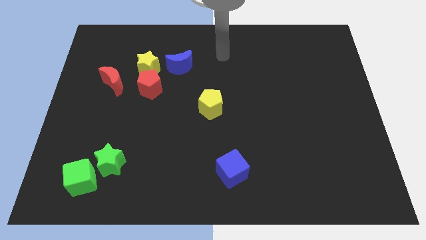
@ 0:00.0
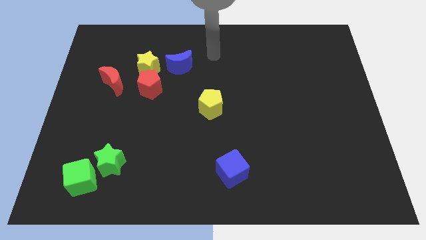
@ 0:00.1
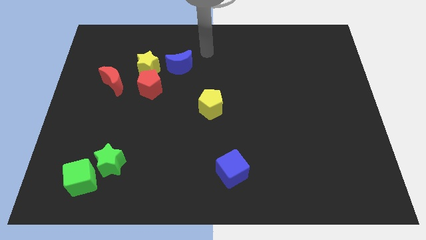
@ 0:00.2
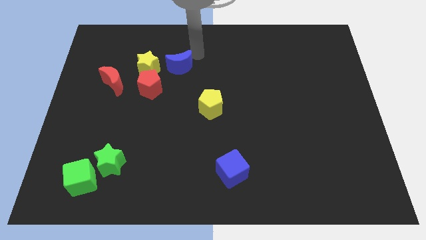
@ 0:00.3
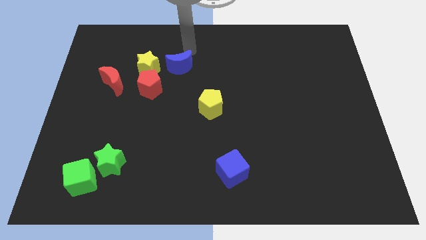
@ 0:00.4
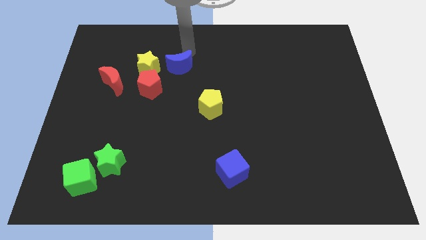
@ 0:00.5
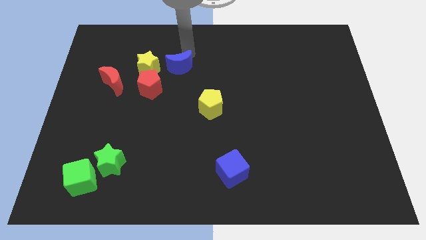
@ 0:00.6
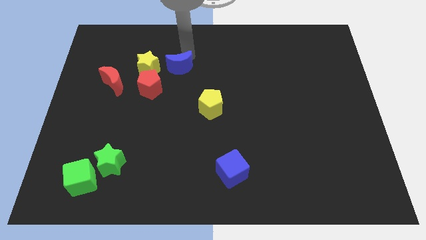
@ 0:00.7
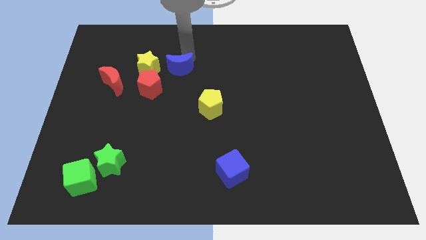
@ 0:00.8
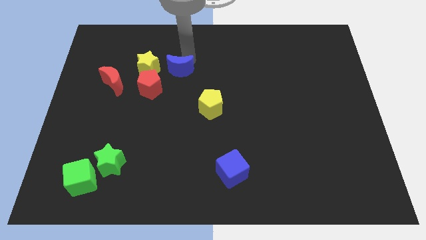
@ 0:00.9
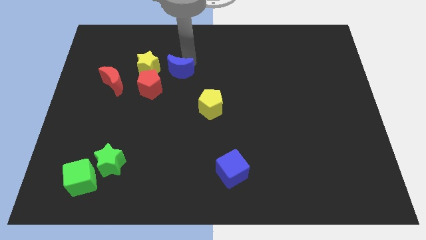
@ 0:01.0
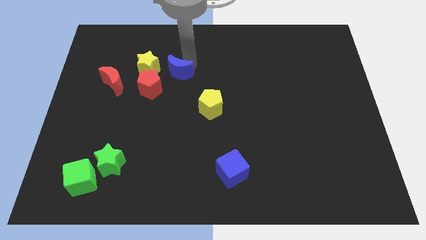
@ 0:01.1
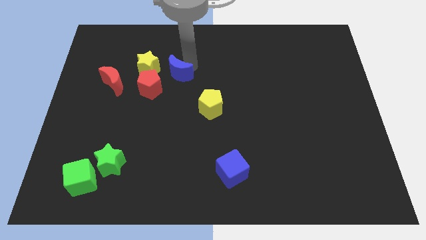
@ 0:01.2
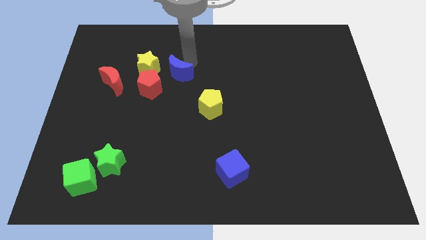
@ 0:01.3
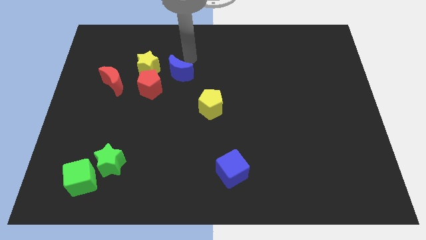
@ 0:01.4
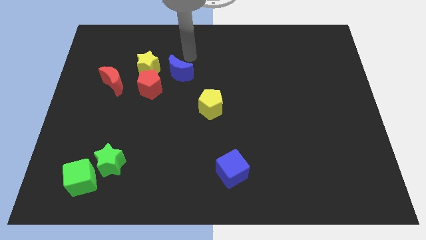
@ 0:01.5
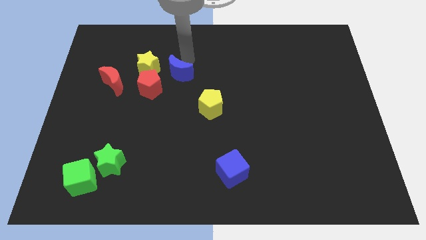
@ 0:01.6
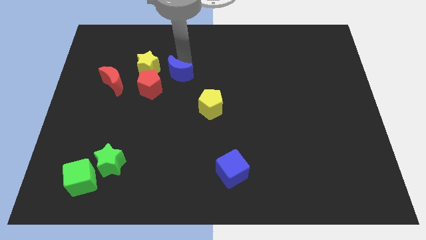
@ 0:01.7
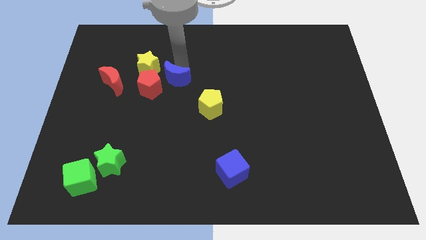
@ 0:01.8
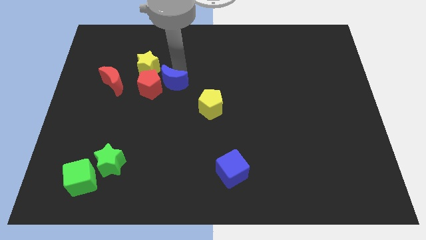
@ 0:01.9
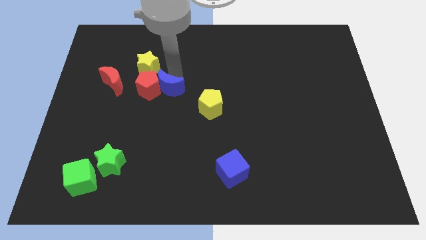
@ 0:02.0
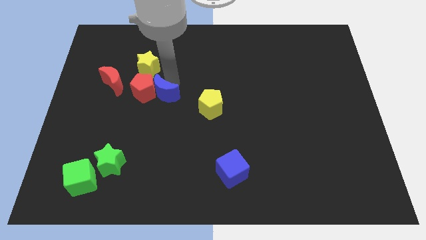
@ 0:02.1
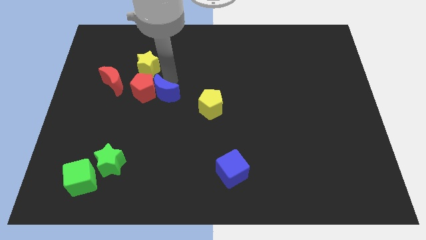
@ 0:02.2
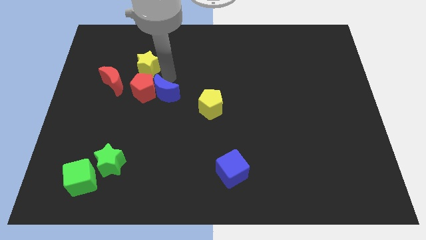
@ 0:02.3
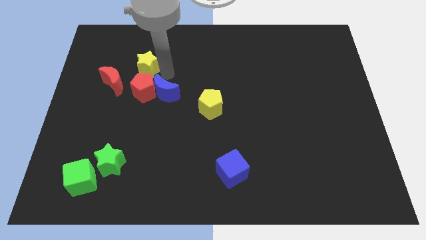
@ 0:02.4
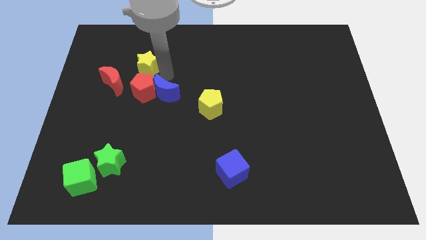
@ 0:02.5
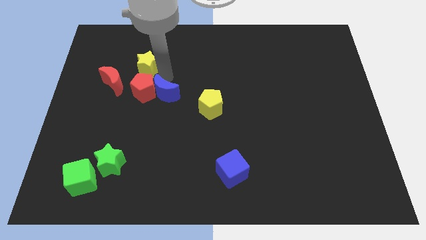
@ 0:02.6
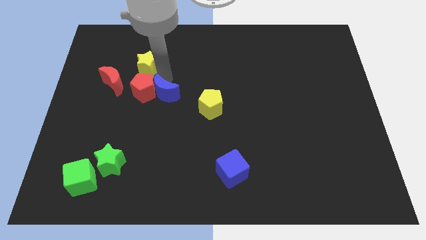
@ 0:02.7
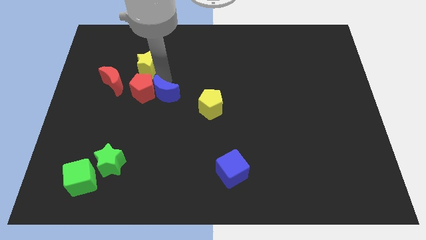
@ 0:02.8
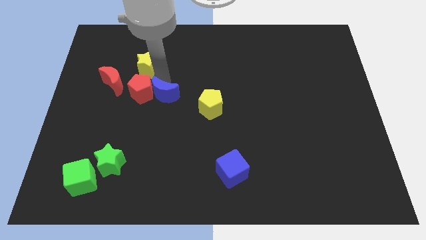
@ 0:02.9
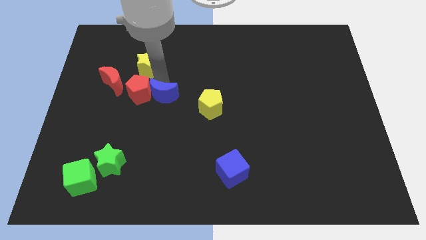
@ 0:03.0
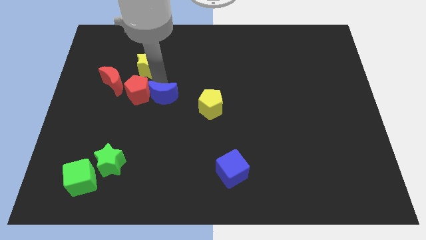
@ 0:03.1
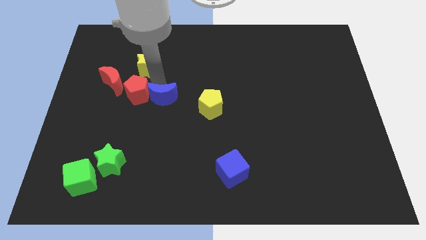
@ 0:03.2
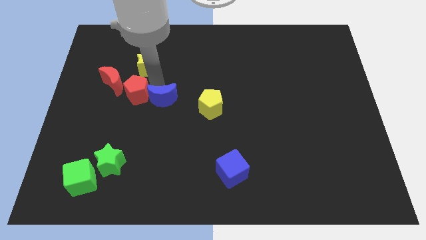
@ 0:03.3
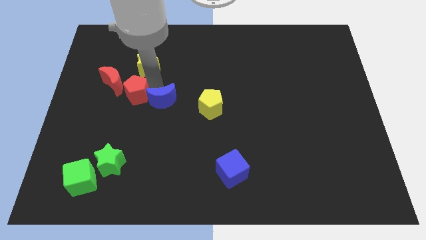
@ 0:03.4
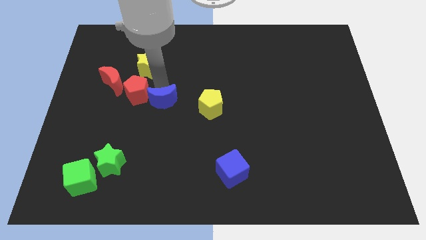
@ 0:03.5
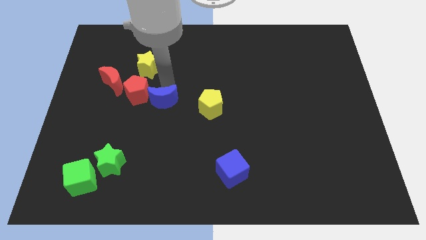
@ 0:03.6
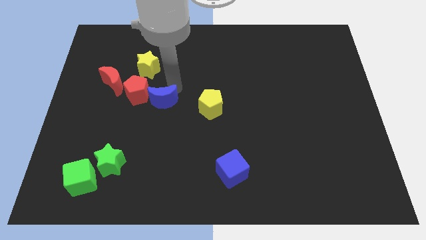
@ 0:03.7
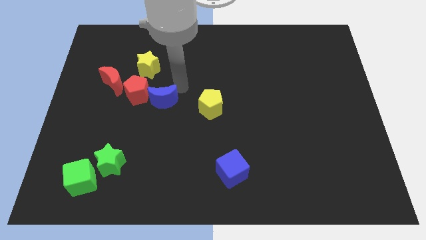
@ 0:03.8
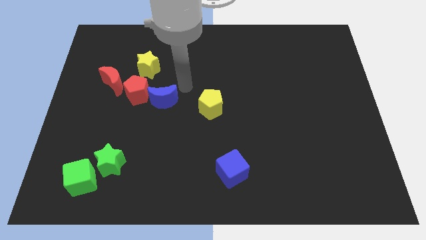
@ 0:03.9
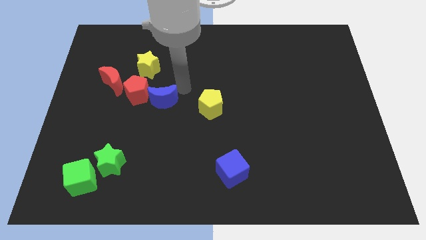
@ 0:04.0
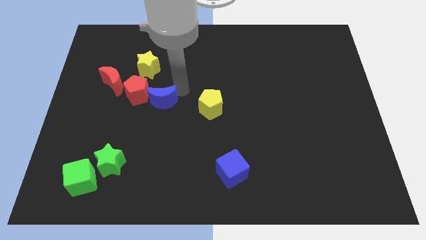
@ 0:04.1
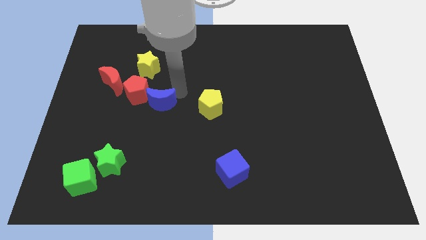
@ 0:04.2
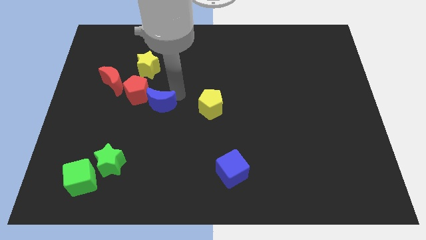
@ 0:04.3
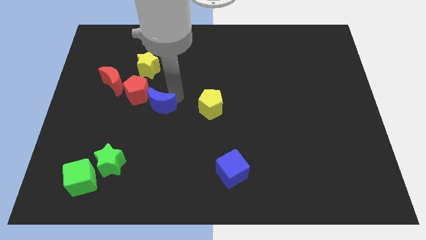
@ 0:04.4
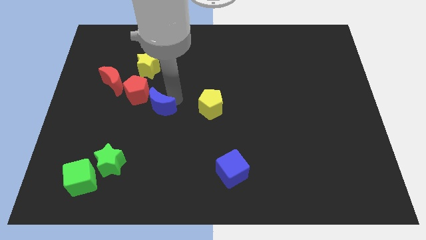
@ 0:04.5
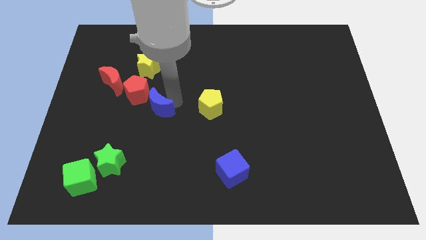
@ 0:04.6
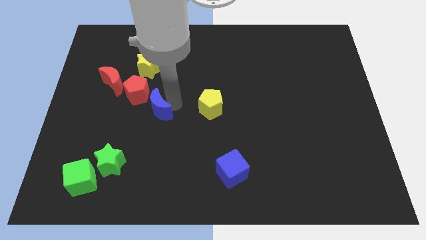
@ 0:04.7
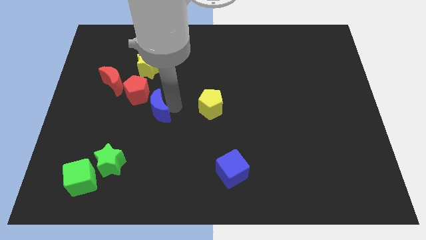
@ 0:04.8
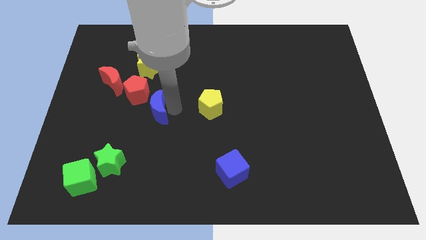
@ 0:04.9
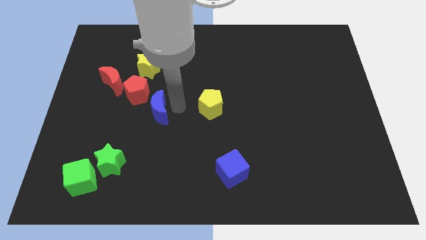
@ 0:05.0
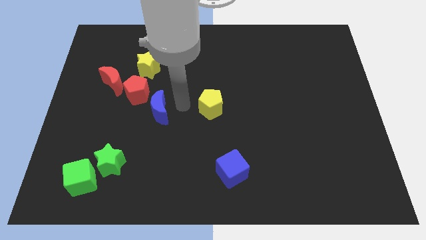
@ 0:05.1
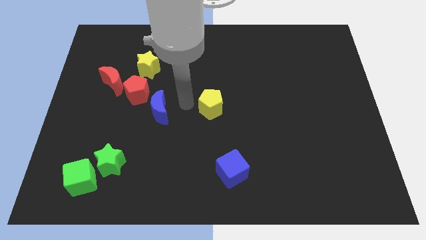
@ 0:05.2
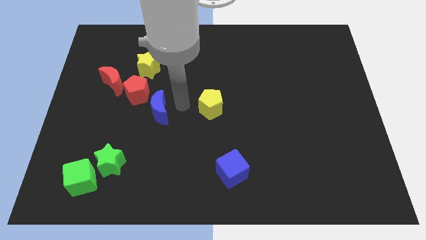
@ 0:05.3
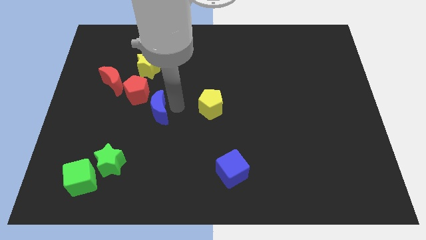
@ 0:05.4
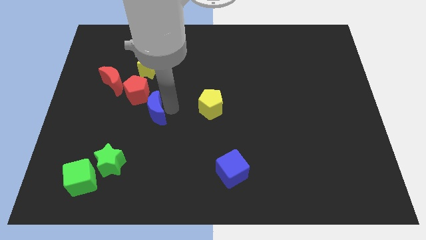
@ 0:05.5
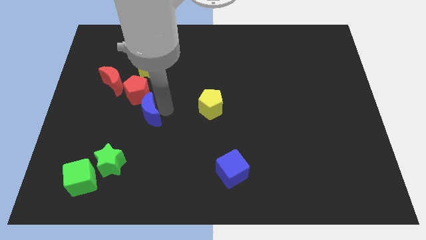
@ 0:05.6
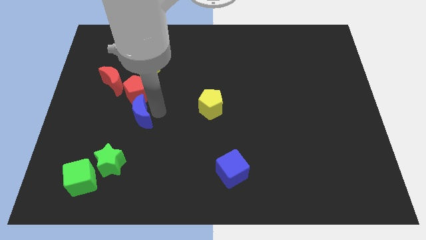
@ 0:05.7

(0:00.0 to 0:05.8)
put the blue moon to the top side of the green star
